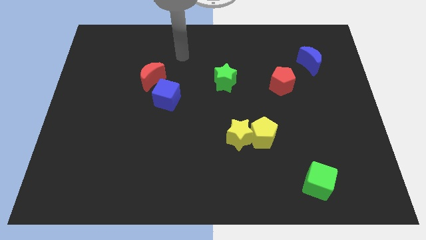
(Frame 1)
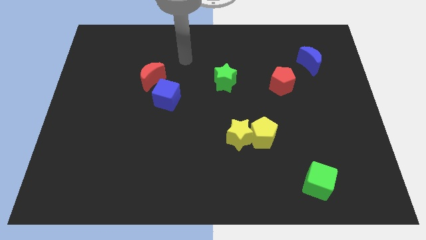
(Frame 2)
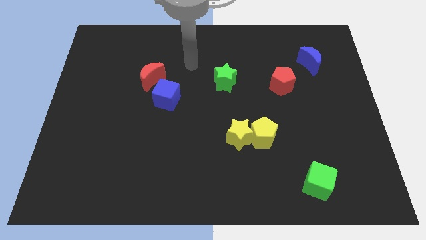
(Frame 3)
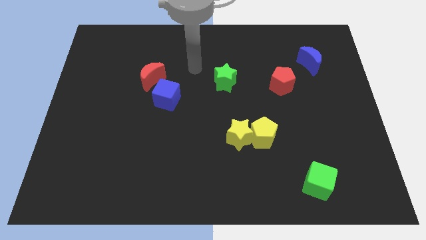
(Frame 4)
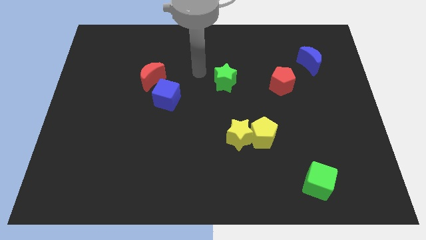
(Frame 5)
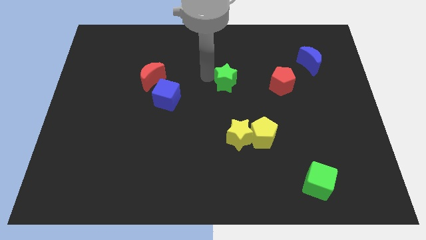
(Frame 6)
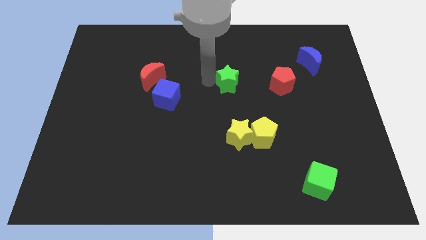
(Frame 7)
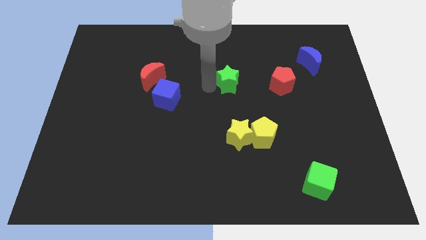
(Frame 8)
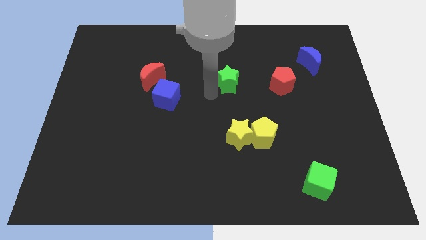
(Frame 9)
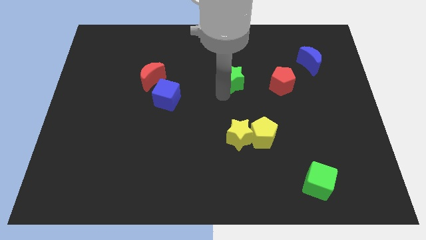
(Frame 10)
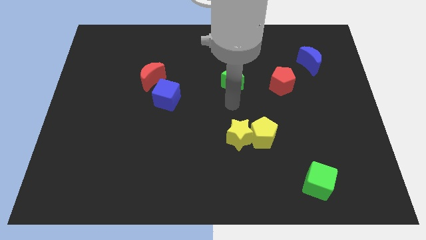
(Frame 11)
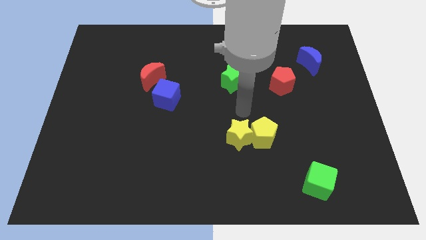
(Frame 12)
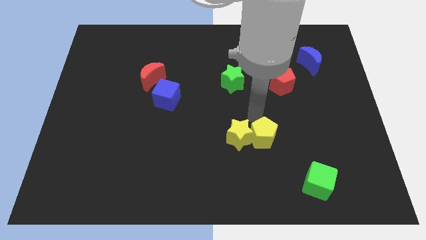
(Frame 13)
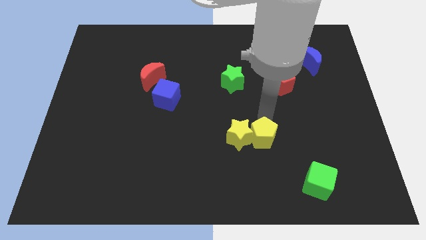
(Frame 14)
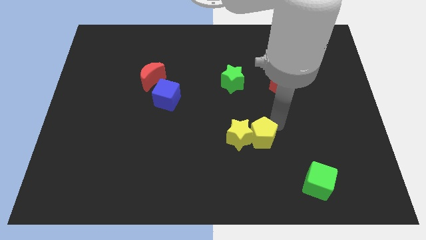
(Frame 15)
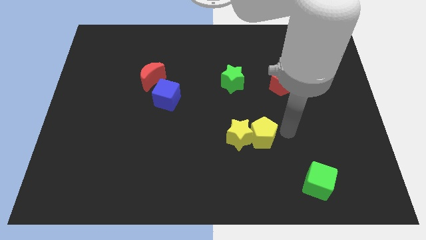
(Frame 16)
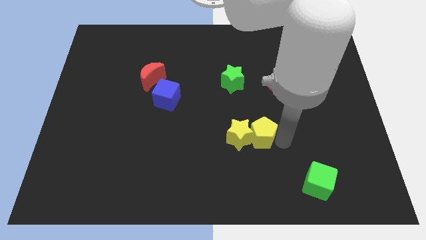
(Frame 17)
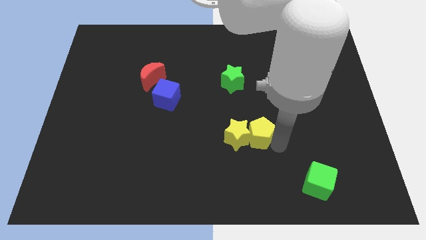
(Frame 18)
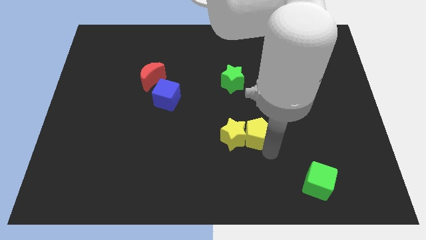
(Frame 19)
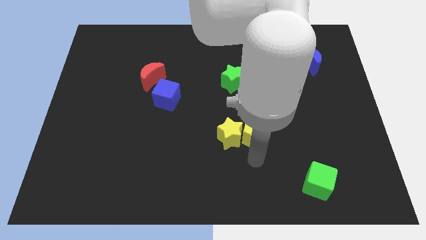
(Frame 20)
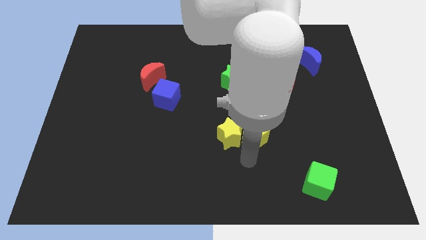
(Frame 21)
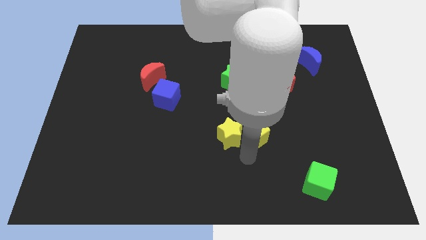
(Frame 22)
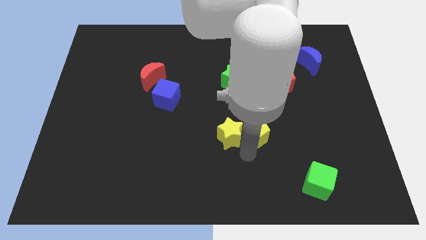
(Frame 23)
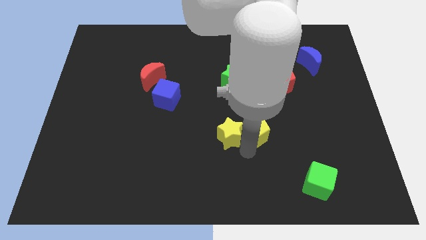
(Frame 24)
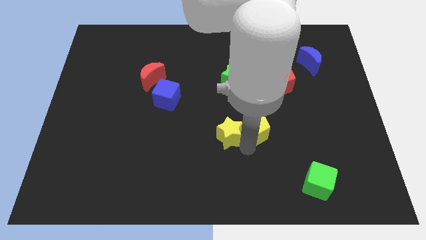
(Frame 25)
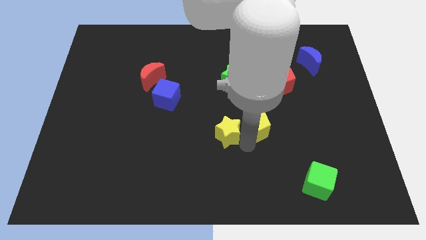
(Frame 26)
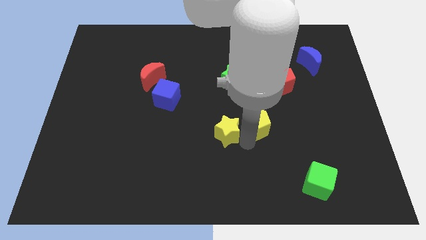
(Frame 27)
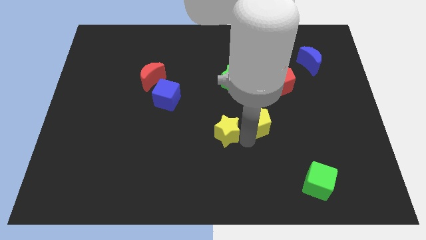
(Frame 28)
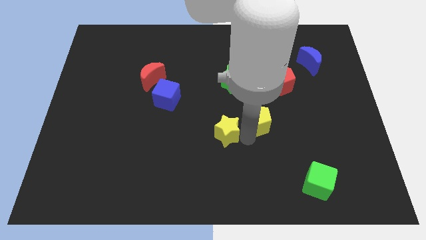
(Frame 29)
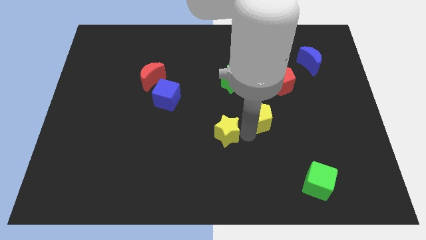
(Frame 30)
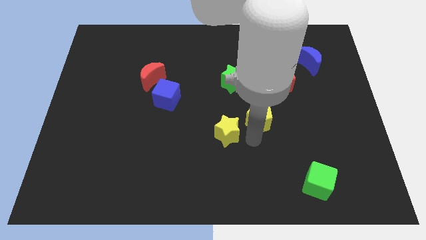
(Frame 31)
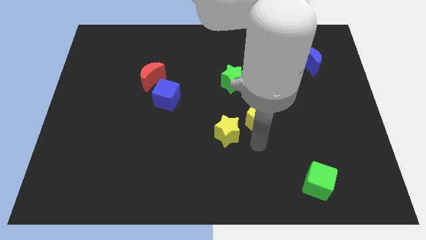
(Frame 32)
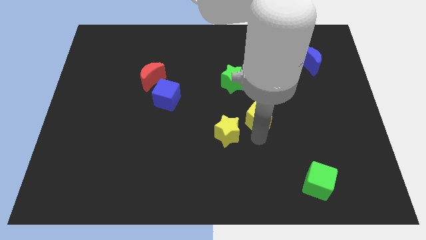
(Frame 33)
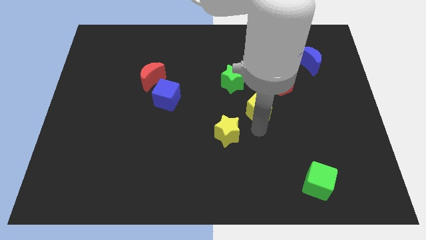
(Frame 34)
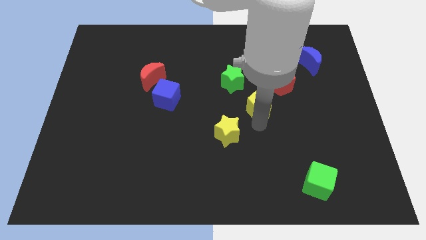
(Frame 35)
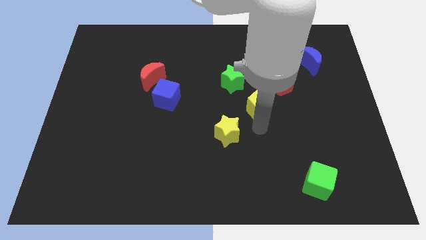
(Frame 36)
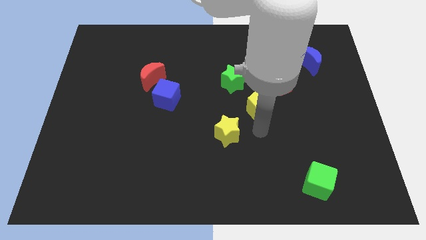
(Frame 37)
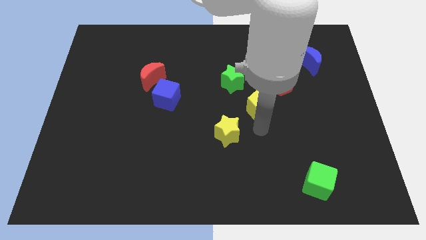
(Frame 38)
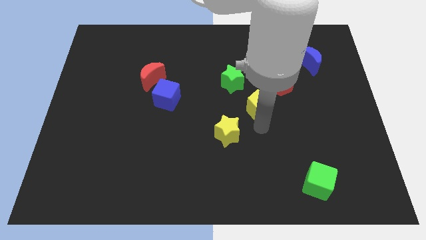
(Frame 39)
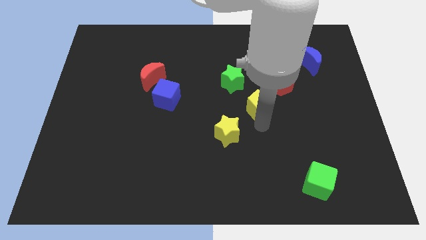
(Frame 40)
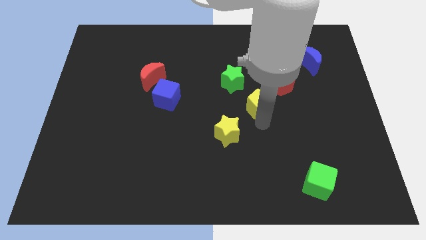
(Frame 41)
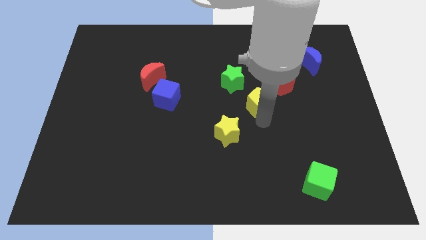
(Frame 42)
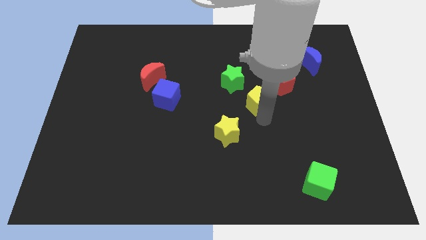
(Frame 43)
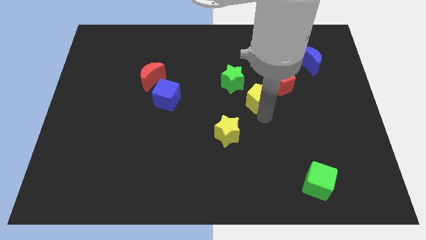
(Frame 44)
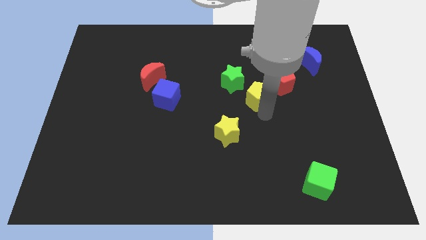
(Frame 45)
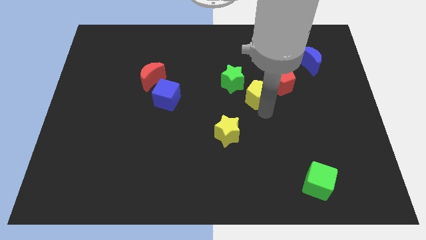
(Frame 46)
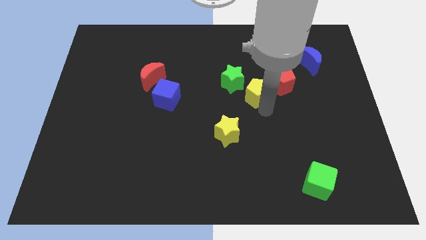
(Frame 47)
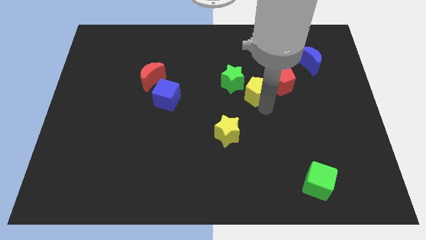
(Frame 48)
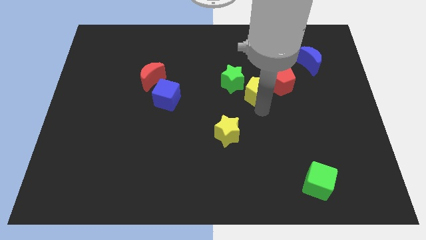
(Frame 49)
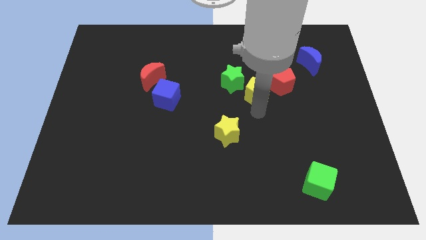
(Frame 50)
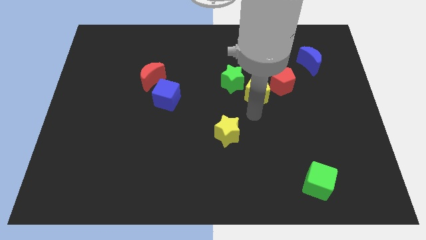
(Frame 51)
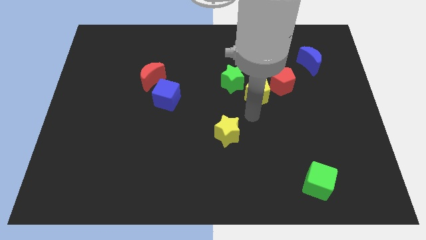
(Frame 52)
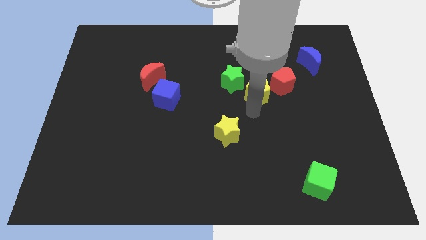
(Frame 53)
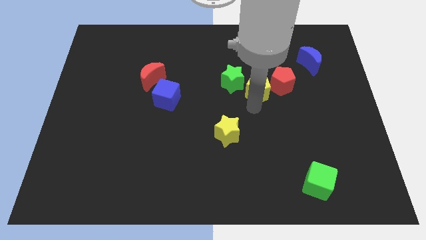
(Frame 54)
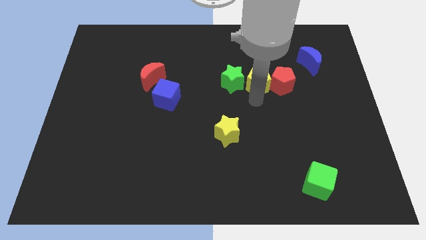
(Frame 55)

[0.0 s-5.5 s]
slide the yellow pentagon to the top left of the red pentagon

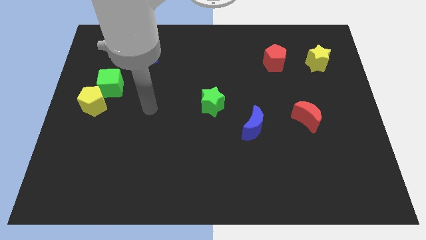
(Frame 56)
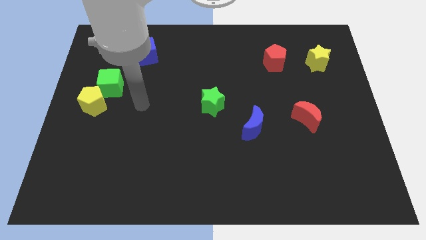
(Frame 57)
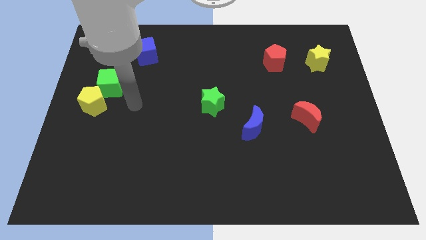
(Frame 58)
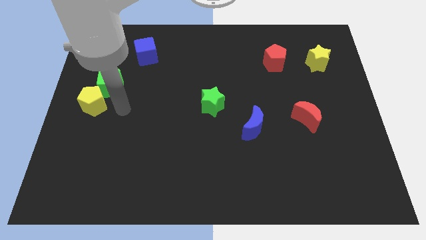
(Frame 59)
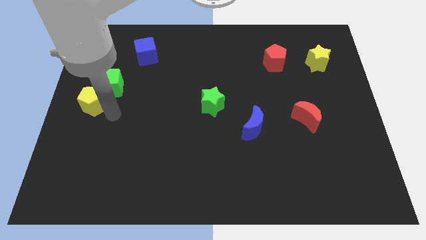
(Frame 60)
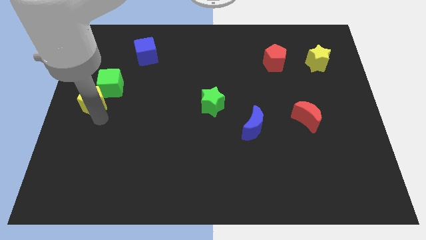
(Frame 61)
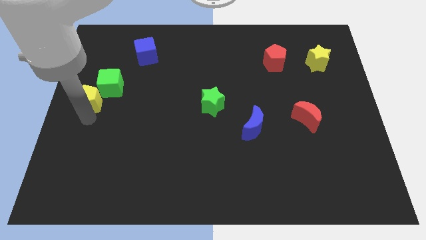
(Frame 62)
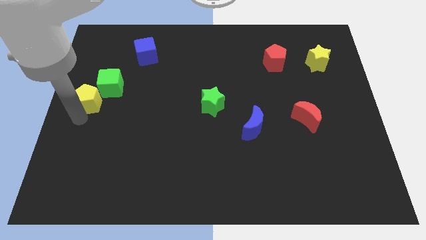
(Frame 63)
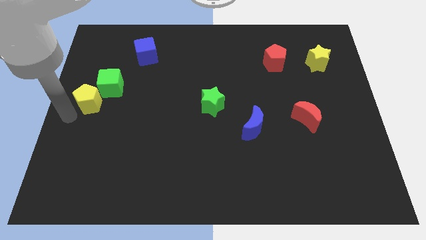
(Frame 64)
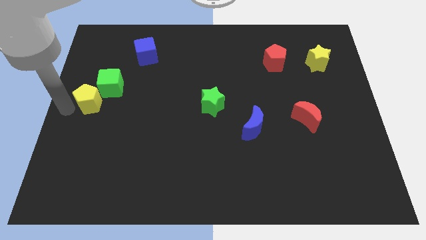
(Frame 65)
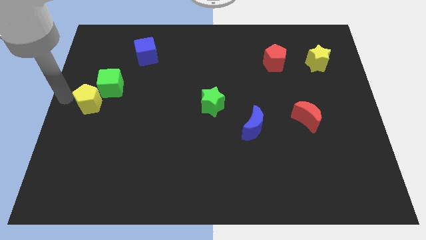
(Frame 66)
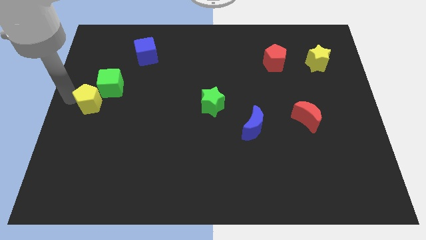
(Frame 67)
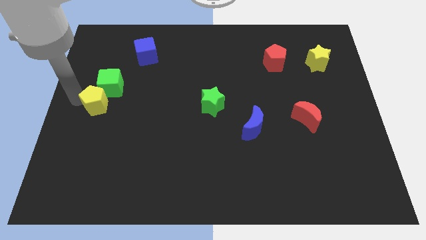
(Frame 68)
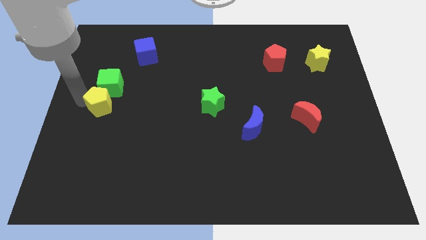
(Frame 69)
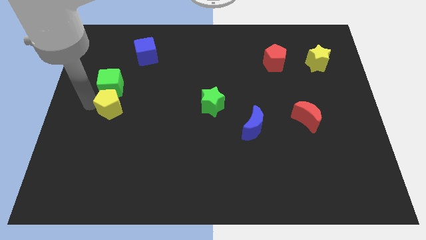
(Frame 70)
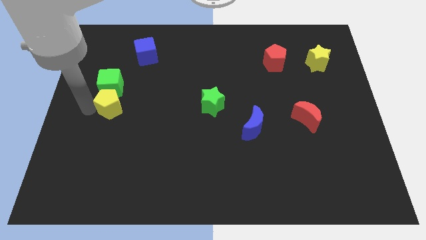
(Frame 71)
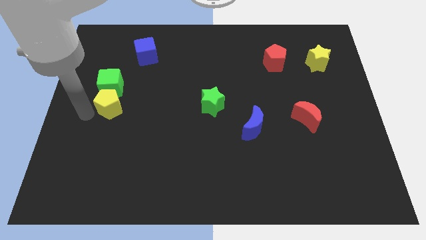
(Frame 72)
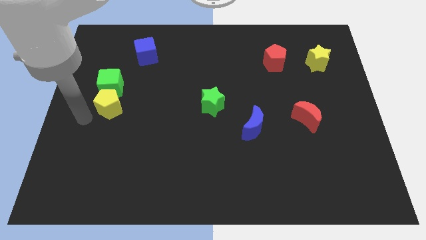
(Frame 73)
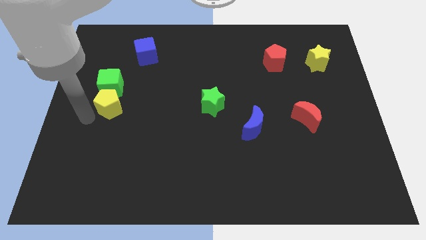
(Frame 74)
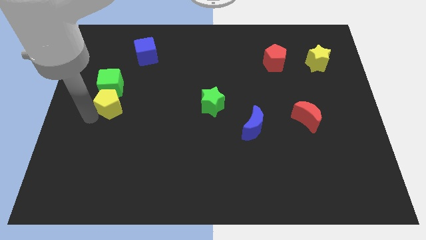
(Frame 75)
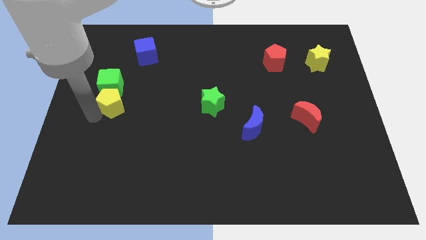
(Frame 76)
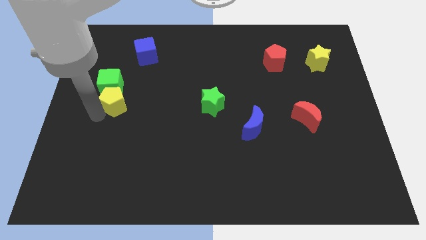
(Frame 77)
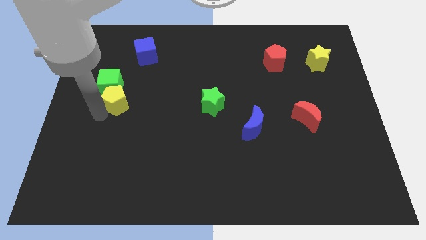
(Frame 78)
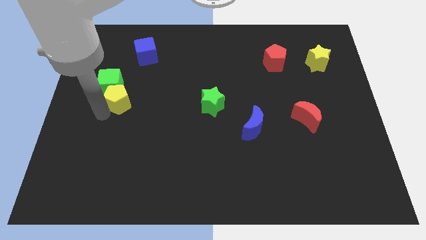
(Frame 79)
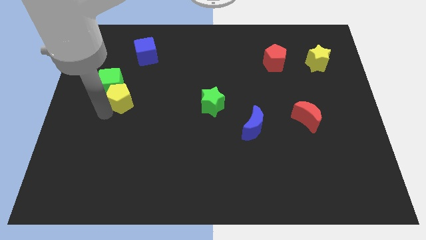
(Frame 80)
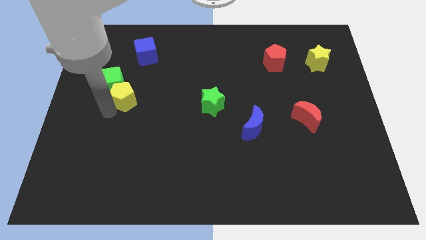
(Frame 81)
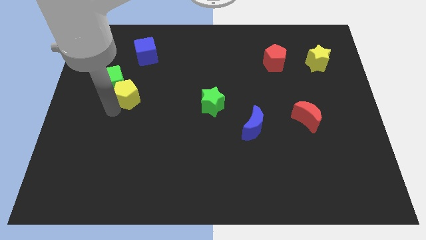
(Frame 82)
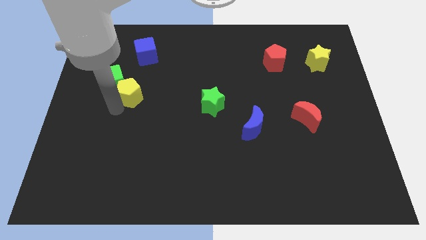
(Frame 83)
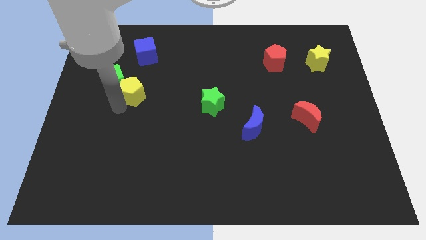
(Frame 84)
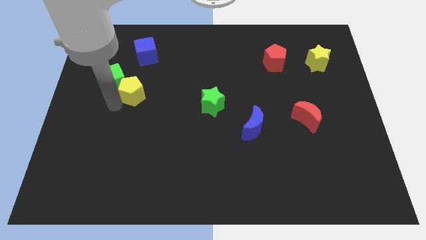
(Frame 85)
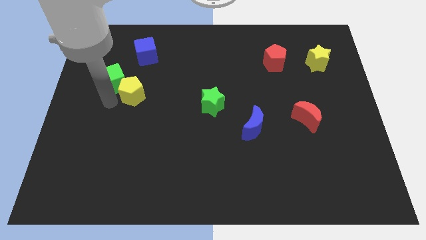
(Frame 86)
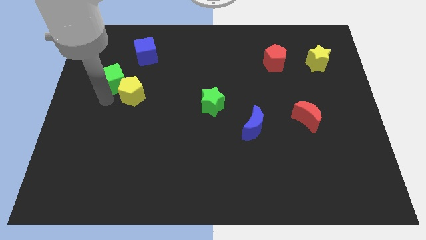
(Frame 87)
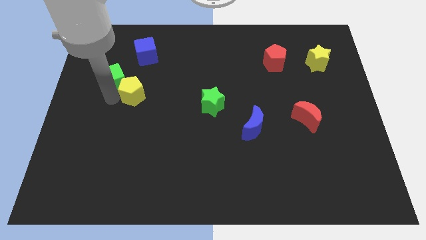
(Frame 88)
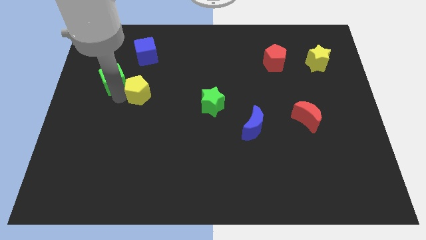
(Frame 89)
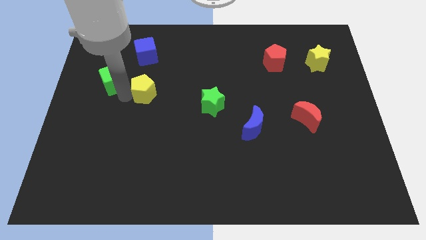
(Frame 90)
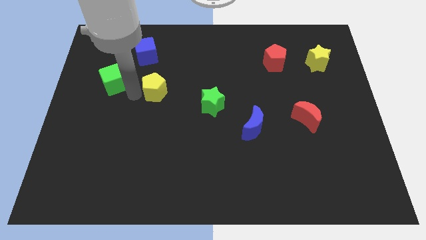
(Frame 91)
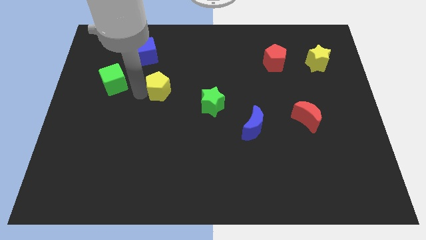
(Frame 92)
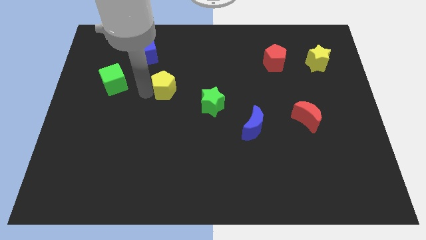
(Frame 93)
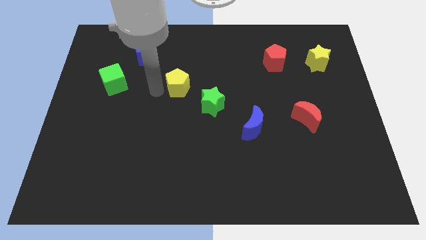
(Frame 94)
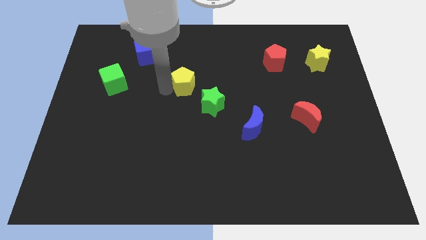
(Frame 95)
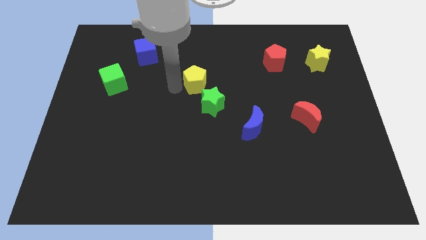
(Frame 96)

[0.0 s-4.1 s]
push the yellow pentagon above the green star
